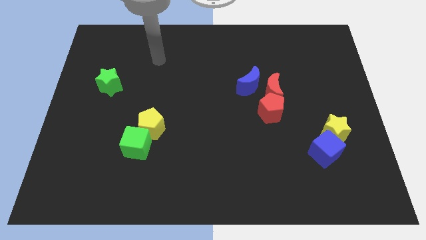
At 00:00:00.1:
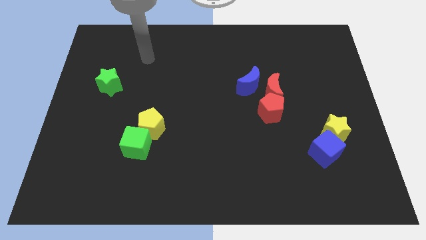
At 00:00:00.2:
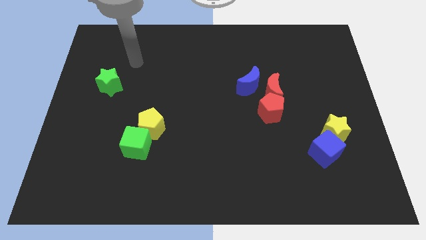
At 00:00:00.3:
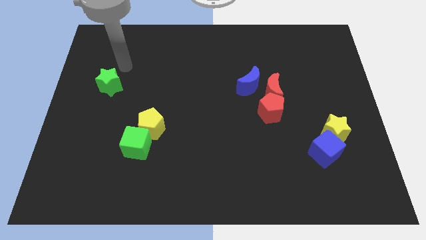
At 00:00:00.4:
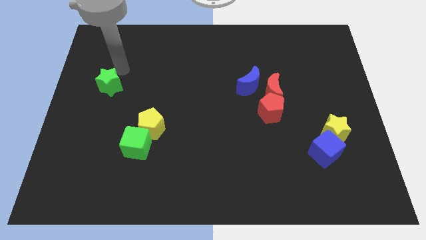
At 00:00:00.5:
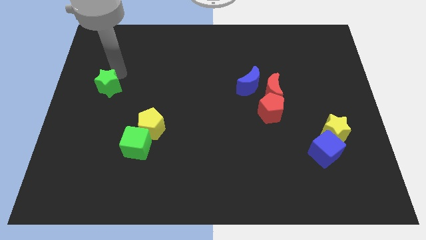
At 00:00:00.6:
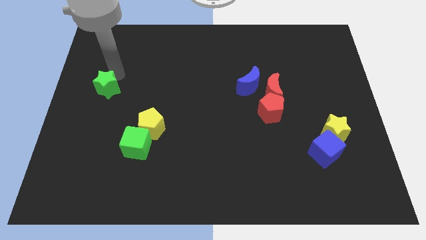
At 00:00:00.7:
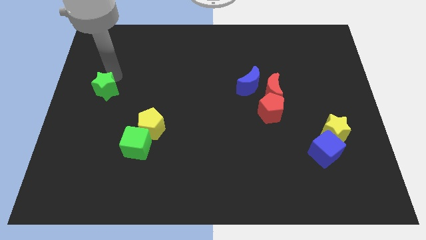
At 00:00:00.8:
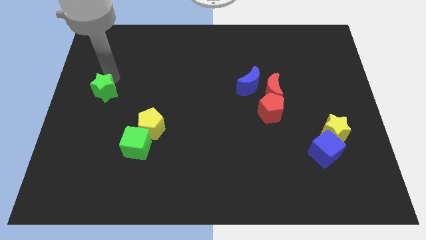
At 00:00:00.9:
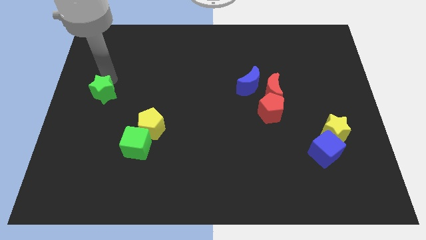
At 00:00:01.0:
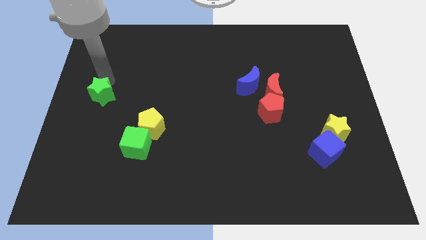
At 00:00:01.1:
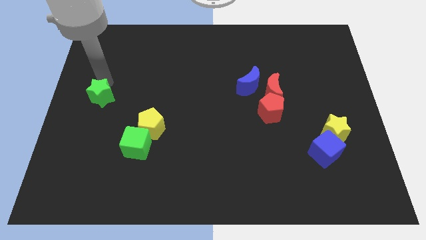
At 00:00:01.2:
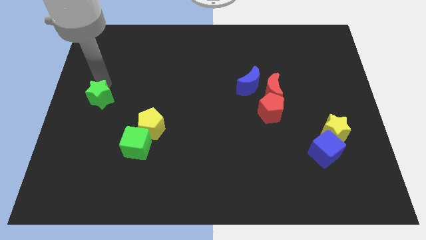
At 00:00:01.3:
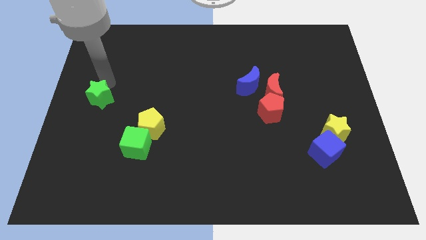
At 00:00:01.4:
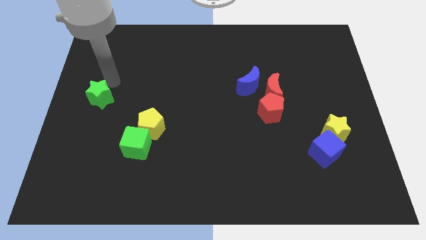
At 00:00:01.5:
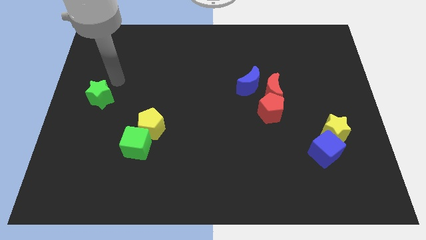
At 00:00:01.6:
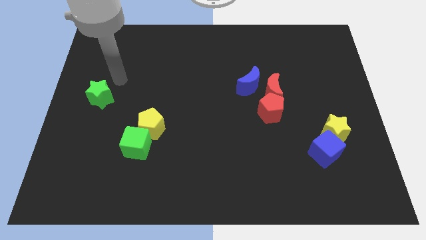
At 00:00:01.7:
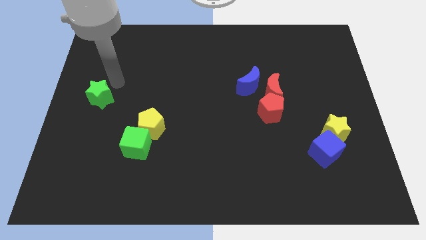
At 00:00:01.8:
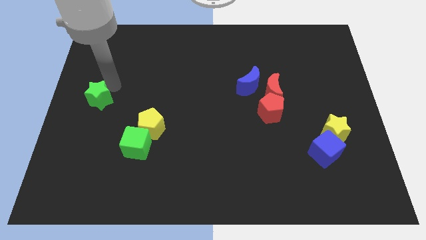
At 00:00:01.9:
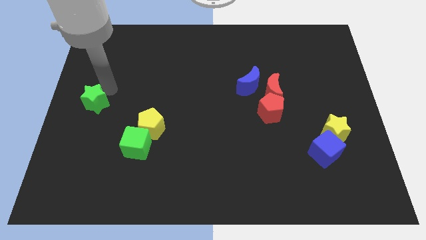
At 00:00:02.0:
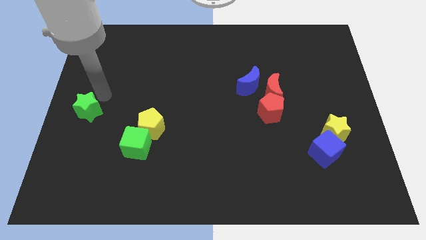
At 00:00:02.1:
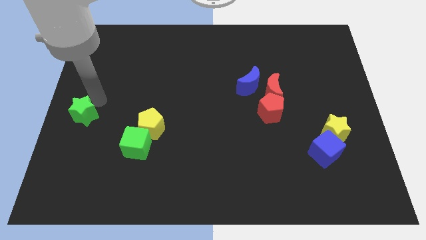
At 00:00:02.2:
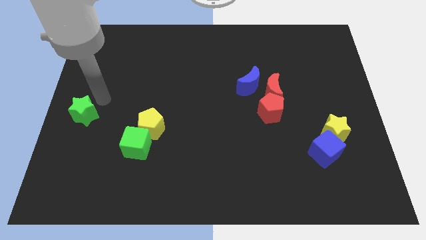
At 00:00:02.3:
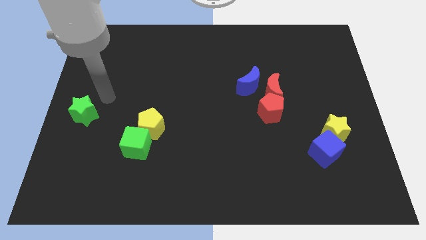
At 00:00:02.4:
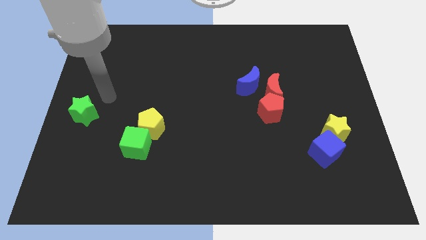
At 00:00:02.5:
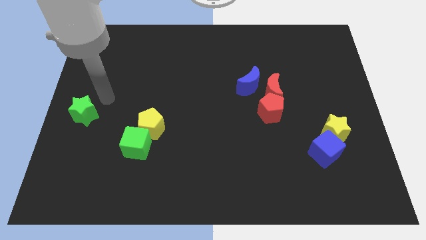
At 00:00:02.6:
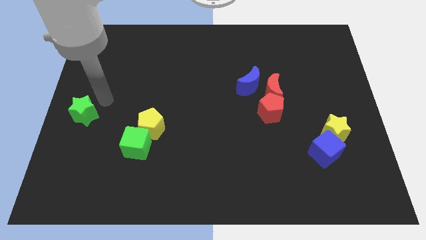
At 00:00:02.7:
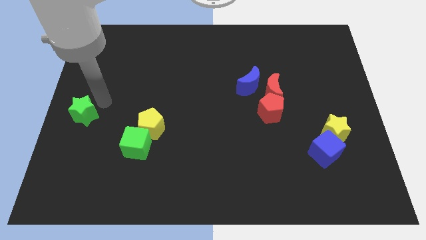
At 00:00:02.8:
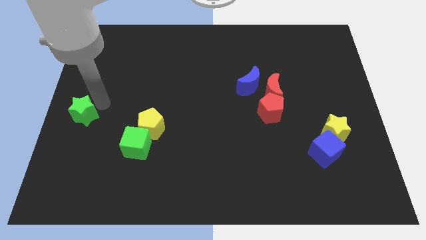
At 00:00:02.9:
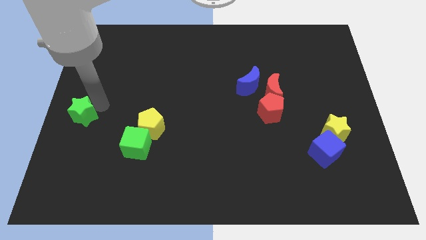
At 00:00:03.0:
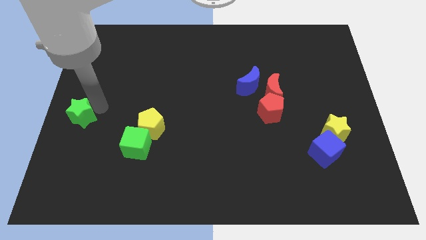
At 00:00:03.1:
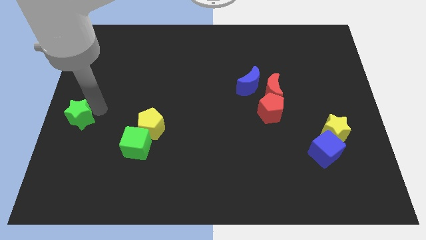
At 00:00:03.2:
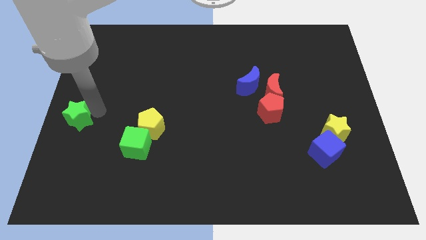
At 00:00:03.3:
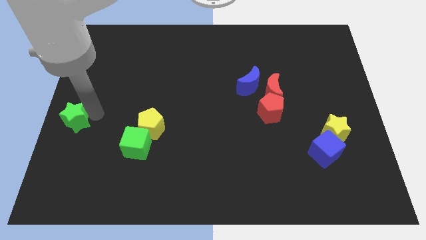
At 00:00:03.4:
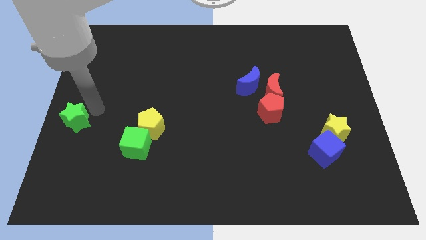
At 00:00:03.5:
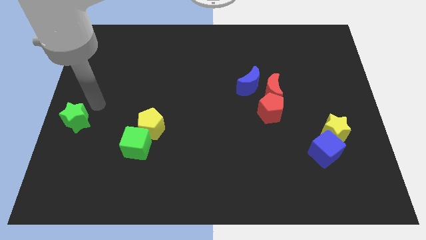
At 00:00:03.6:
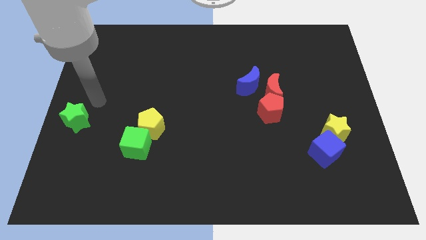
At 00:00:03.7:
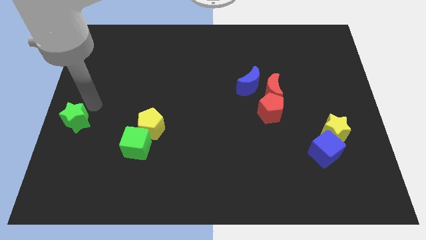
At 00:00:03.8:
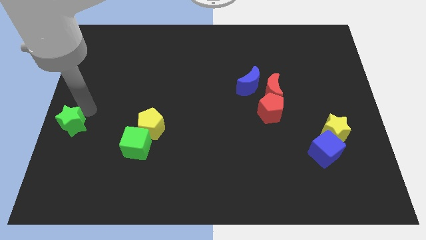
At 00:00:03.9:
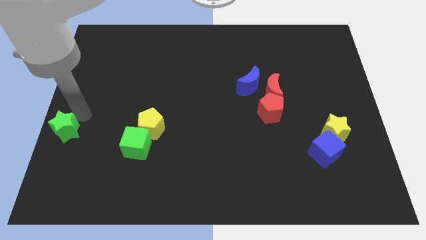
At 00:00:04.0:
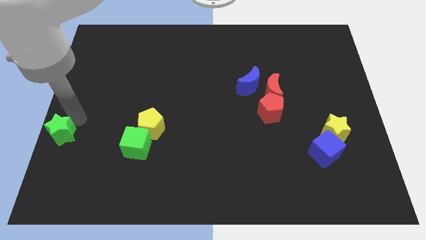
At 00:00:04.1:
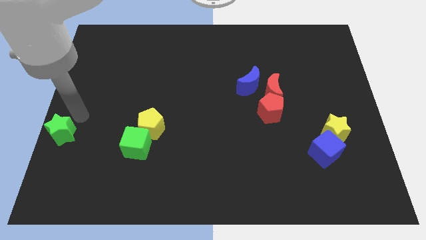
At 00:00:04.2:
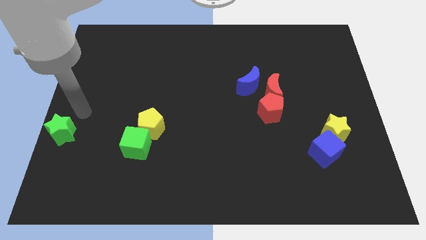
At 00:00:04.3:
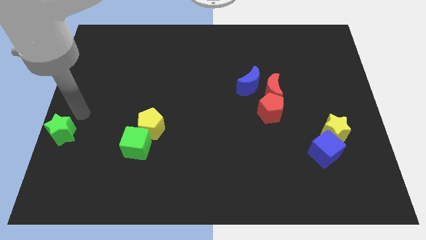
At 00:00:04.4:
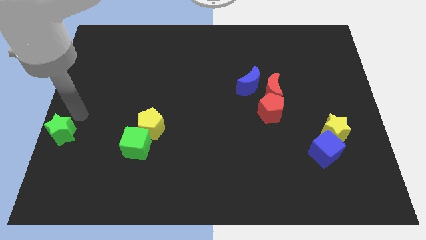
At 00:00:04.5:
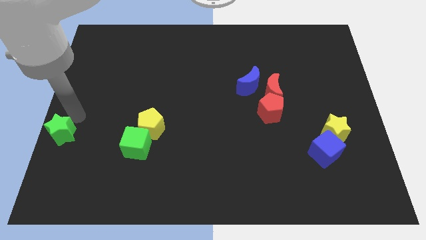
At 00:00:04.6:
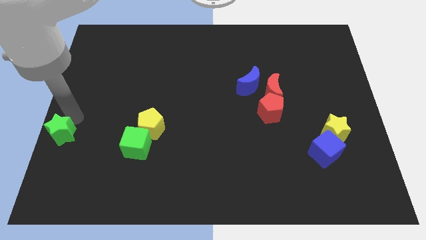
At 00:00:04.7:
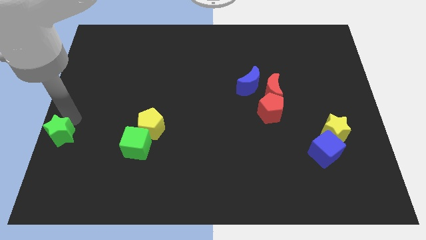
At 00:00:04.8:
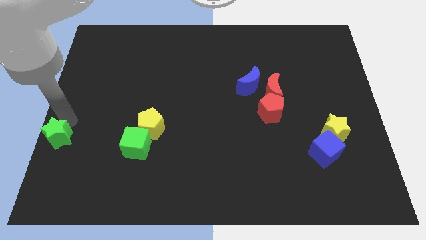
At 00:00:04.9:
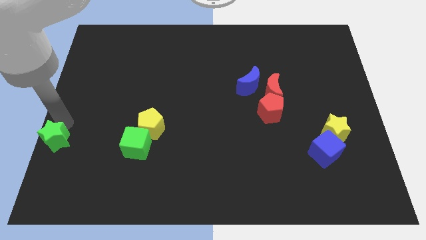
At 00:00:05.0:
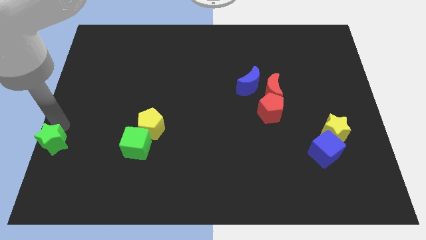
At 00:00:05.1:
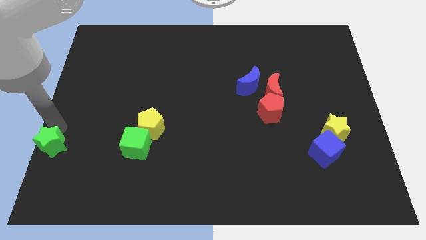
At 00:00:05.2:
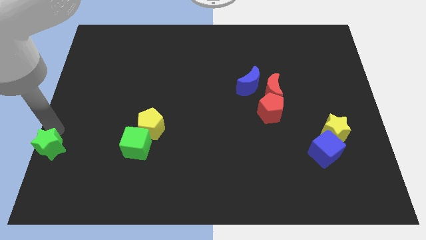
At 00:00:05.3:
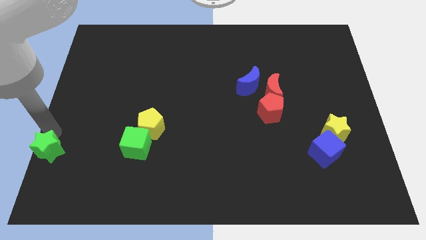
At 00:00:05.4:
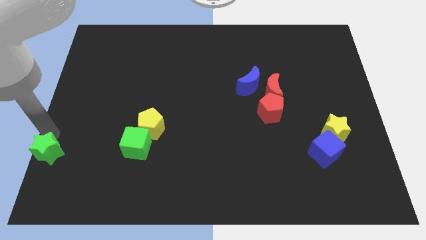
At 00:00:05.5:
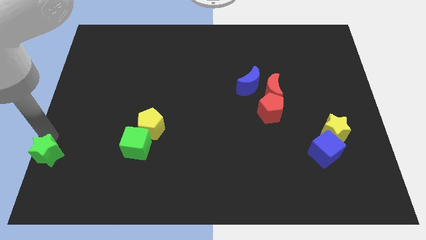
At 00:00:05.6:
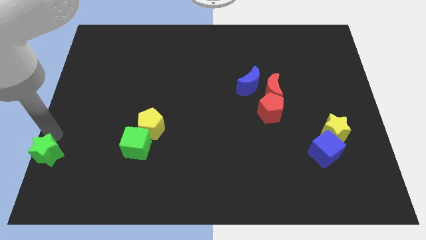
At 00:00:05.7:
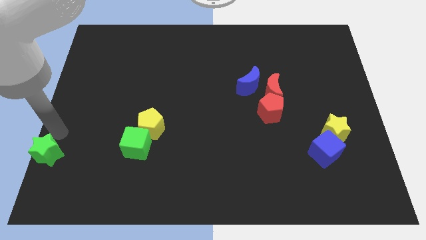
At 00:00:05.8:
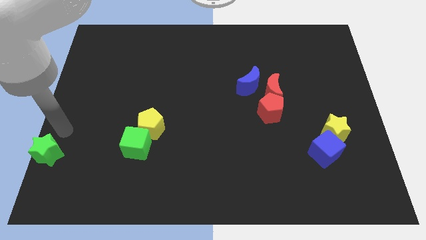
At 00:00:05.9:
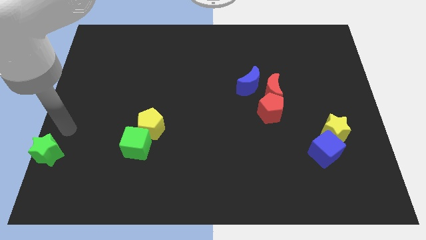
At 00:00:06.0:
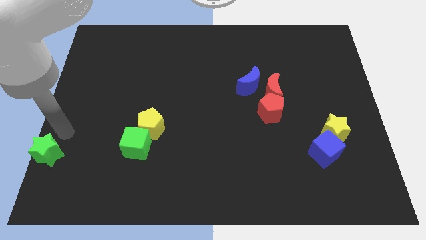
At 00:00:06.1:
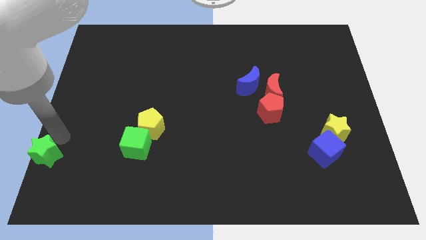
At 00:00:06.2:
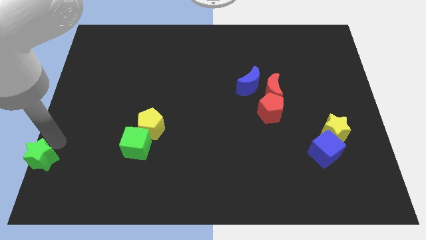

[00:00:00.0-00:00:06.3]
put the green star to the lower left corner
